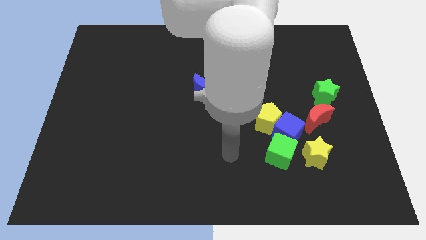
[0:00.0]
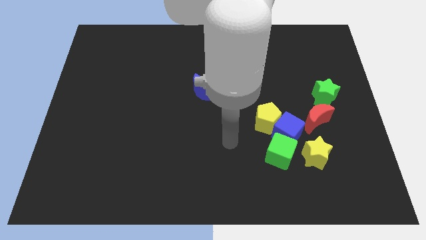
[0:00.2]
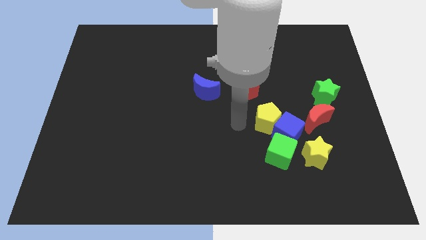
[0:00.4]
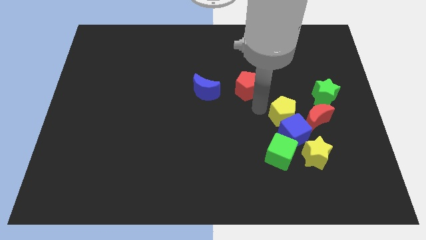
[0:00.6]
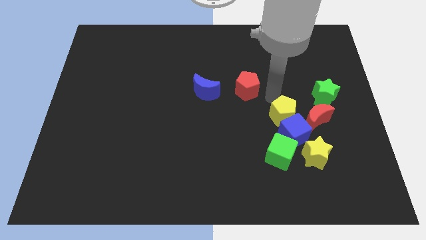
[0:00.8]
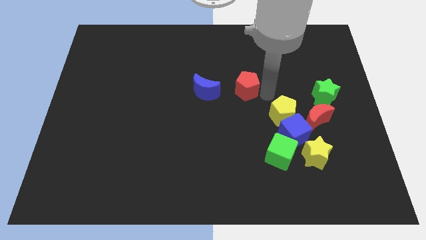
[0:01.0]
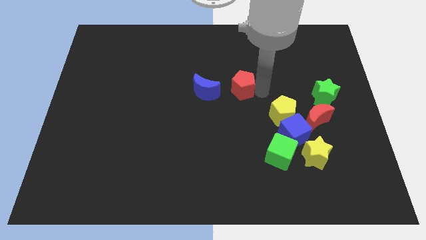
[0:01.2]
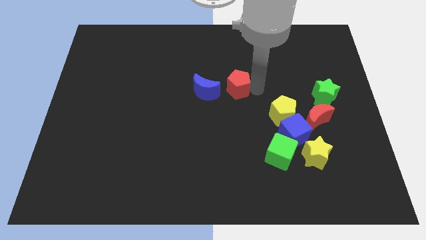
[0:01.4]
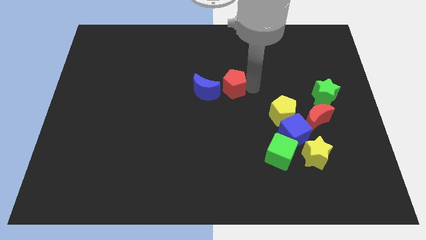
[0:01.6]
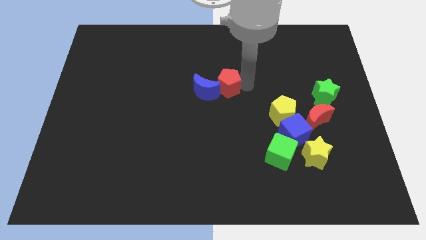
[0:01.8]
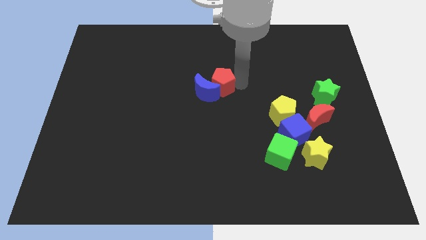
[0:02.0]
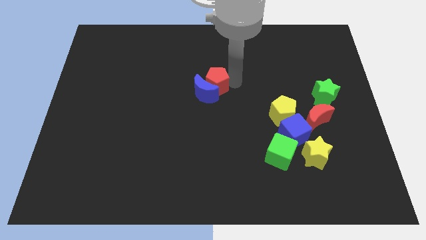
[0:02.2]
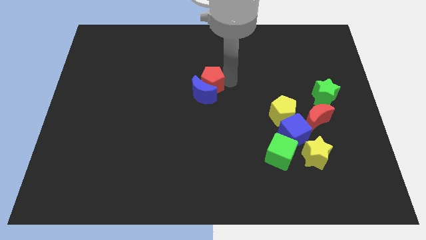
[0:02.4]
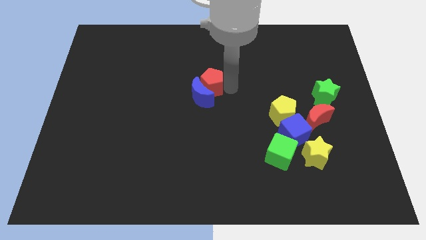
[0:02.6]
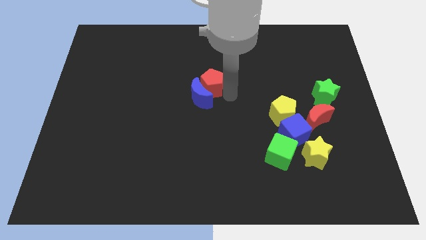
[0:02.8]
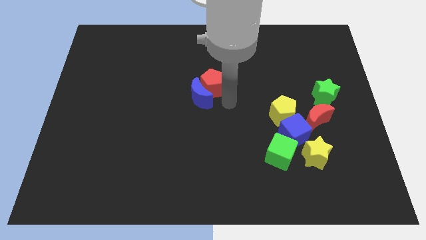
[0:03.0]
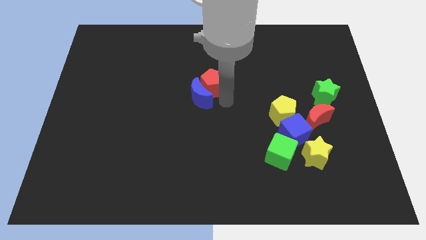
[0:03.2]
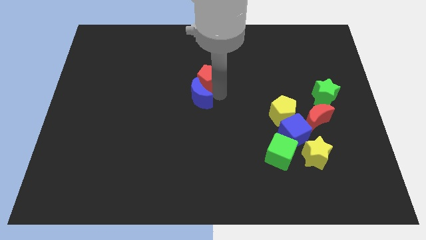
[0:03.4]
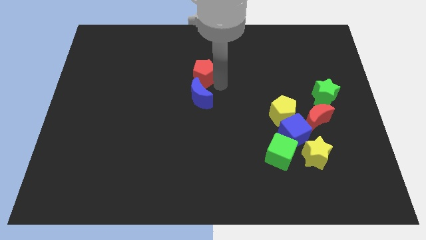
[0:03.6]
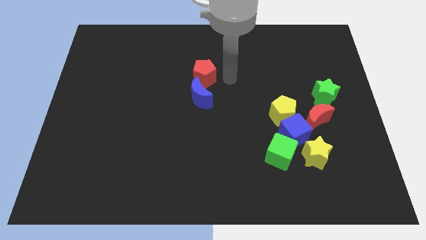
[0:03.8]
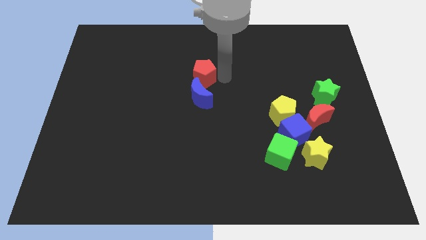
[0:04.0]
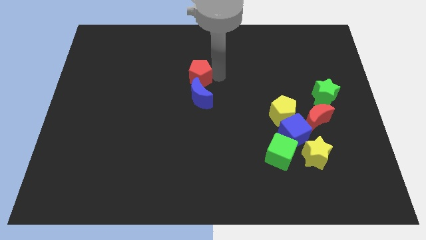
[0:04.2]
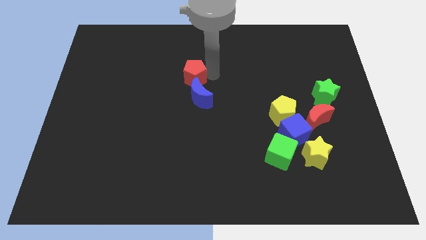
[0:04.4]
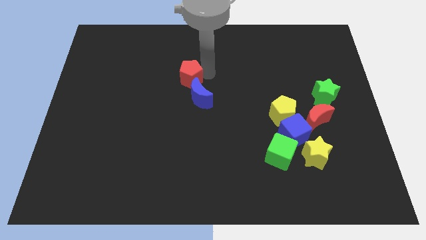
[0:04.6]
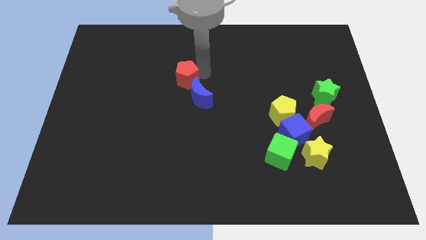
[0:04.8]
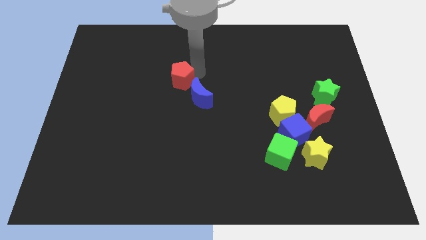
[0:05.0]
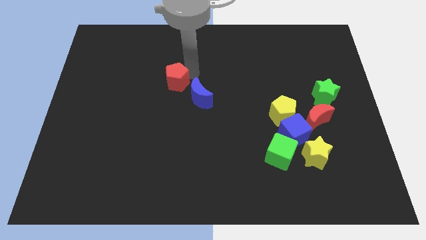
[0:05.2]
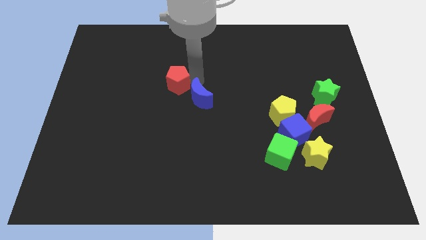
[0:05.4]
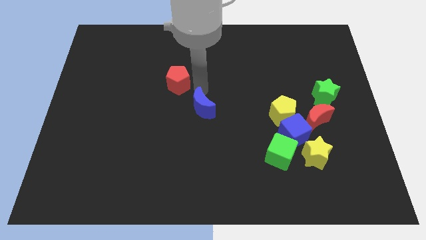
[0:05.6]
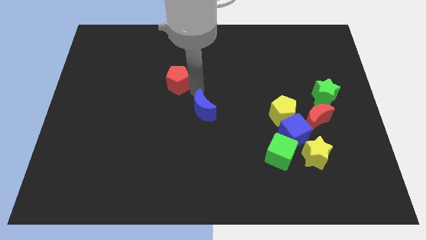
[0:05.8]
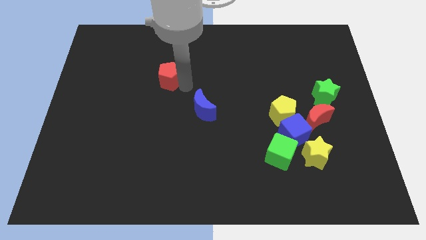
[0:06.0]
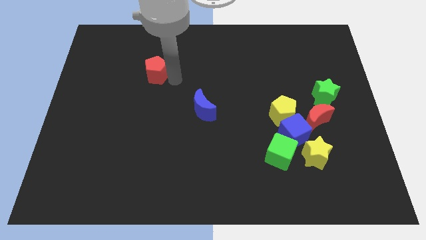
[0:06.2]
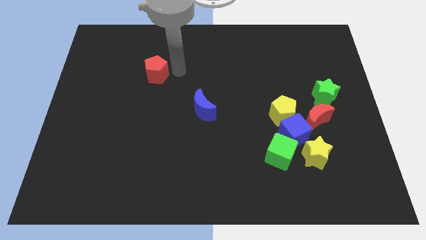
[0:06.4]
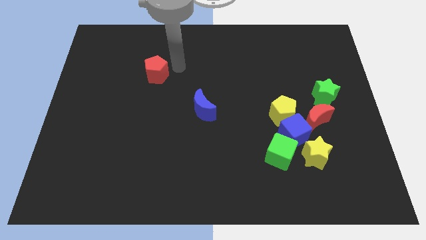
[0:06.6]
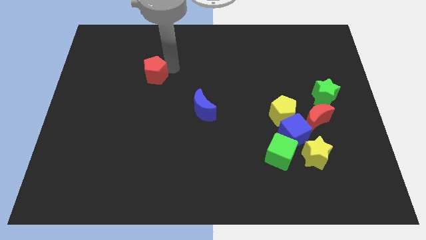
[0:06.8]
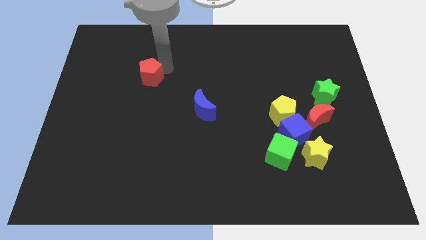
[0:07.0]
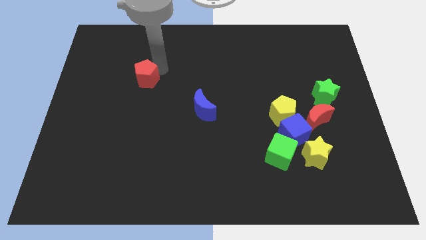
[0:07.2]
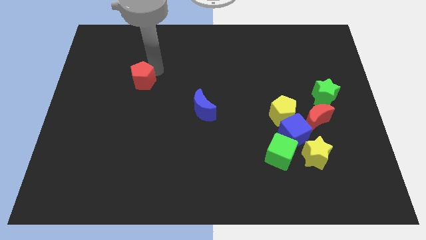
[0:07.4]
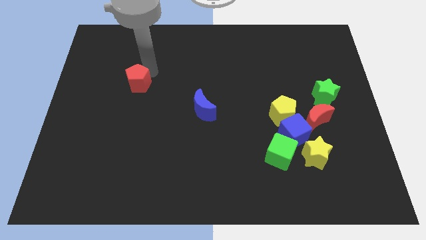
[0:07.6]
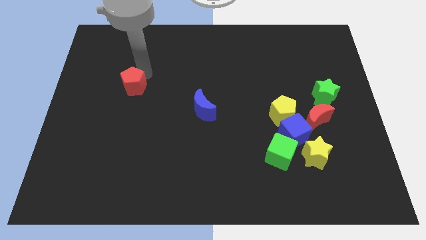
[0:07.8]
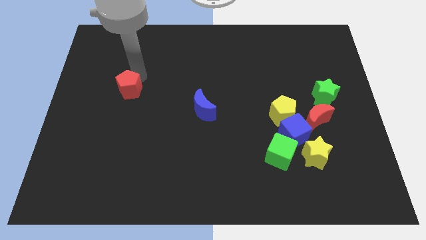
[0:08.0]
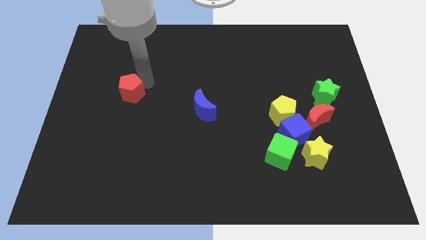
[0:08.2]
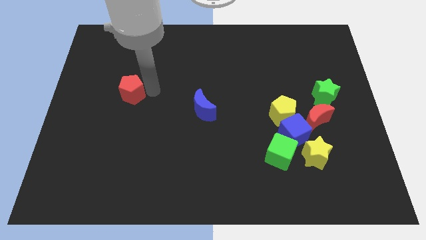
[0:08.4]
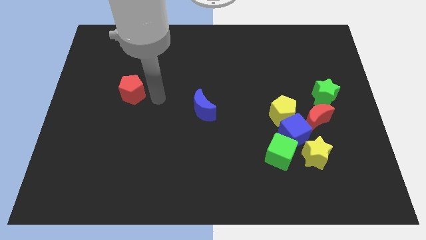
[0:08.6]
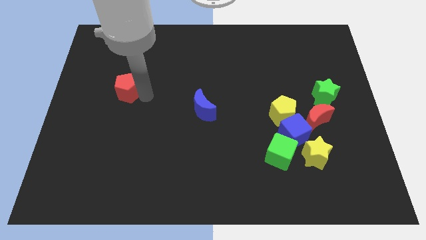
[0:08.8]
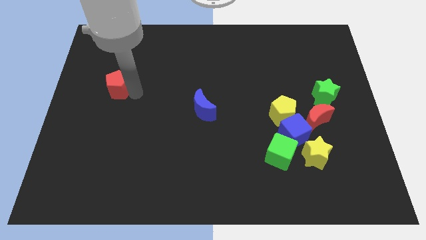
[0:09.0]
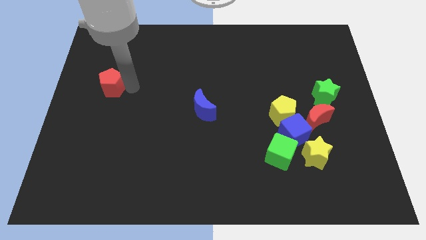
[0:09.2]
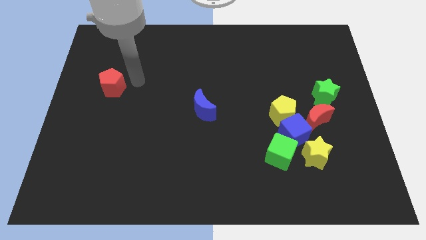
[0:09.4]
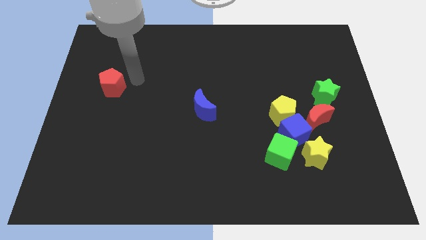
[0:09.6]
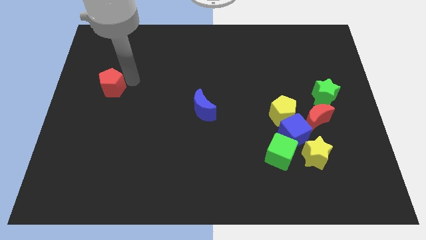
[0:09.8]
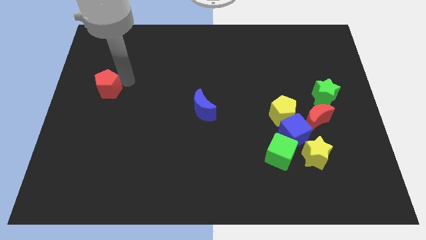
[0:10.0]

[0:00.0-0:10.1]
slide the red pentagon to the left side of the board

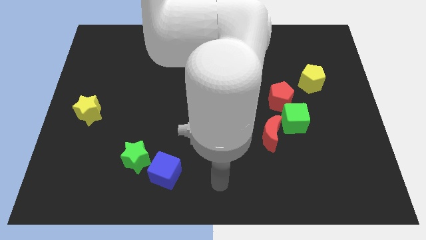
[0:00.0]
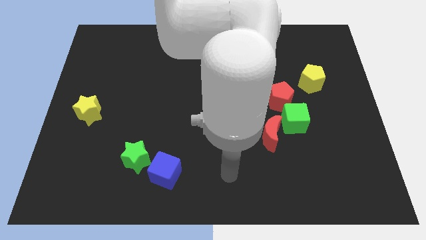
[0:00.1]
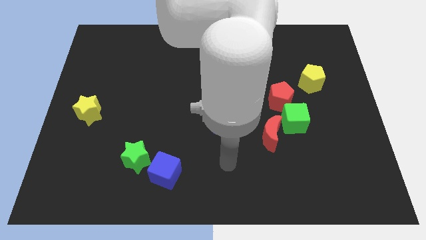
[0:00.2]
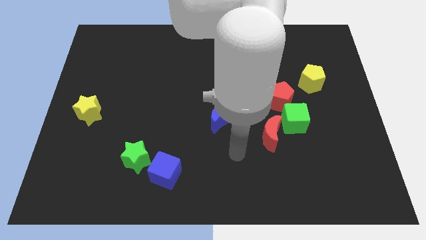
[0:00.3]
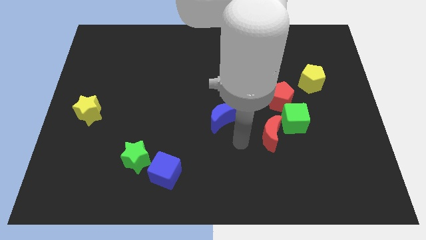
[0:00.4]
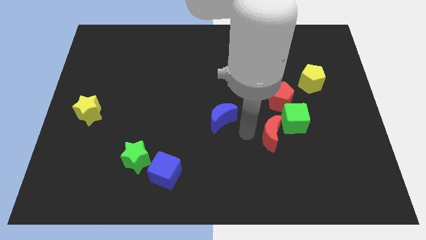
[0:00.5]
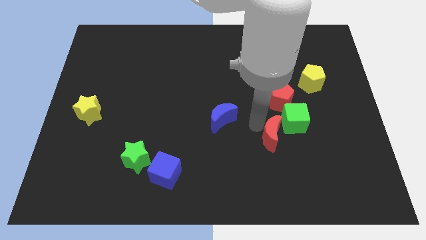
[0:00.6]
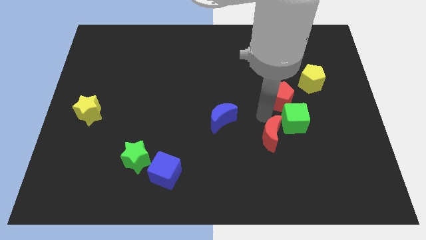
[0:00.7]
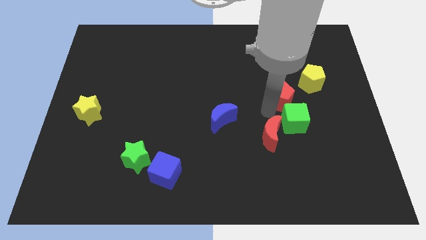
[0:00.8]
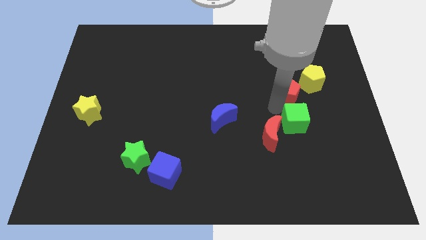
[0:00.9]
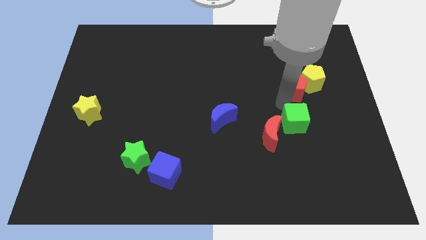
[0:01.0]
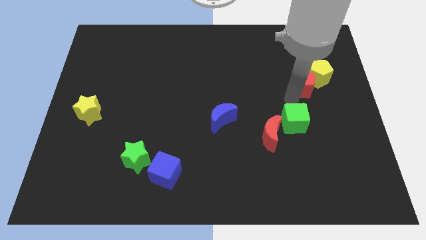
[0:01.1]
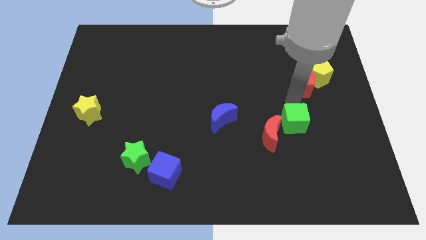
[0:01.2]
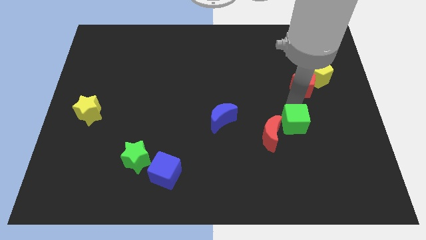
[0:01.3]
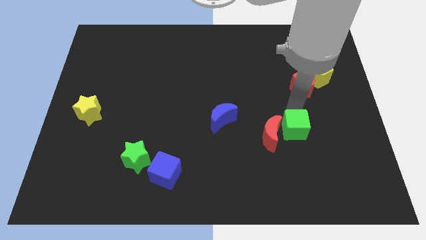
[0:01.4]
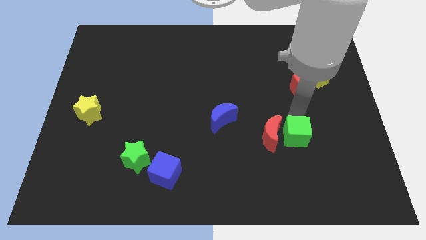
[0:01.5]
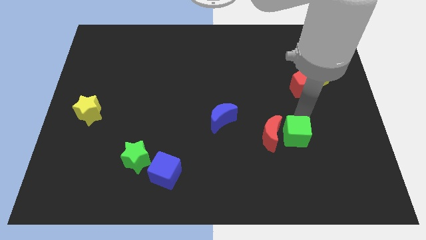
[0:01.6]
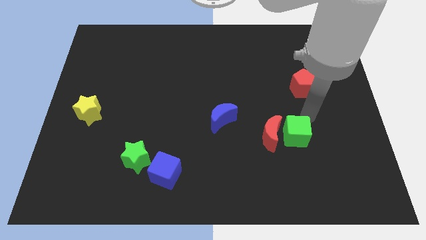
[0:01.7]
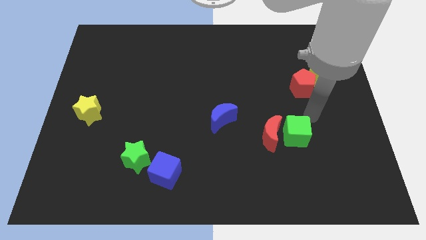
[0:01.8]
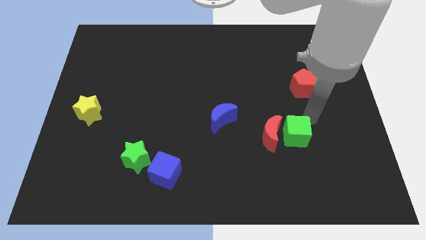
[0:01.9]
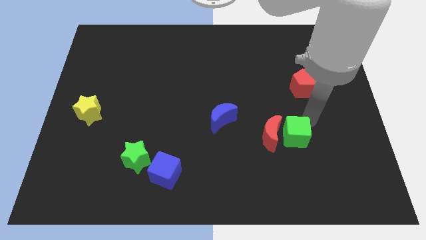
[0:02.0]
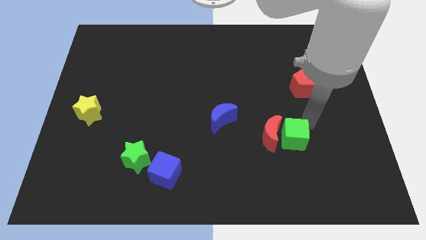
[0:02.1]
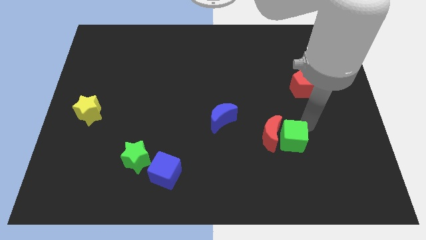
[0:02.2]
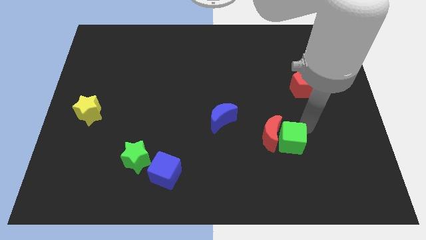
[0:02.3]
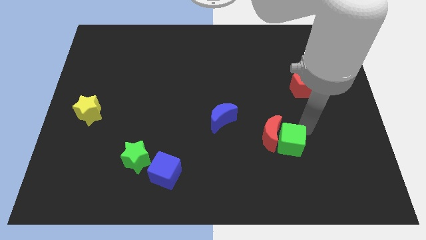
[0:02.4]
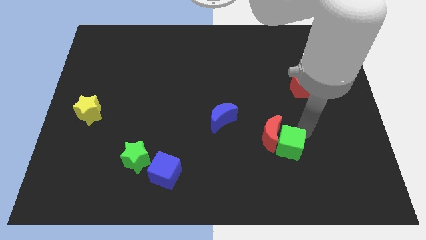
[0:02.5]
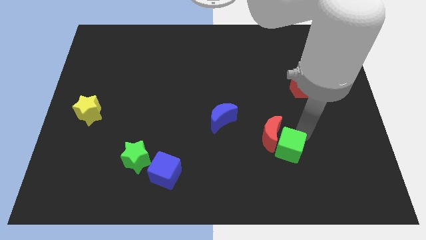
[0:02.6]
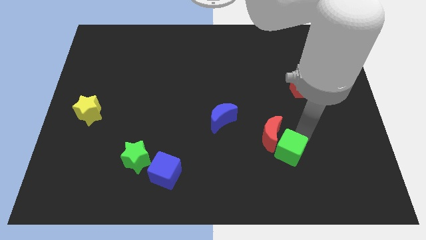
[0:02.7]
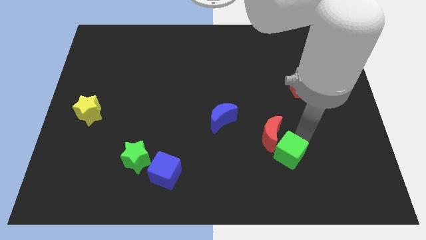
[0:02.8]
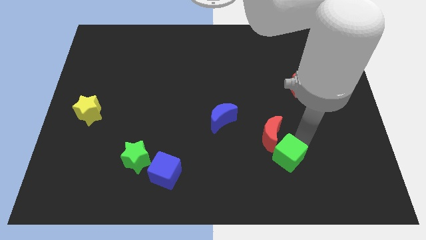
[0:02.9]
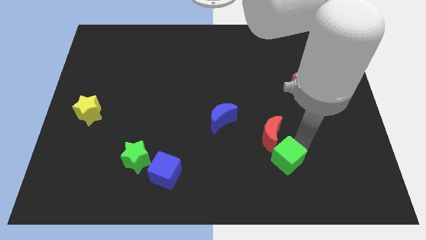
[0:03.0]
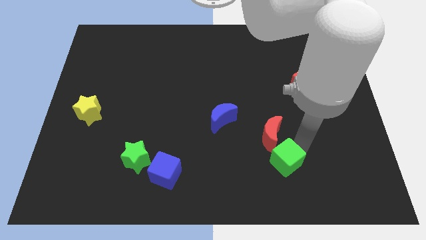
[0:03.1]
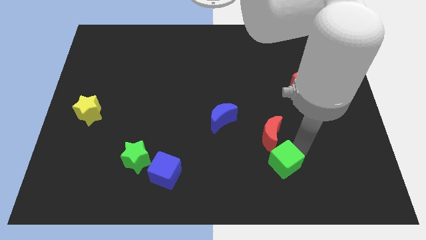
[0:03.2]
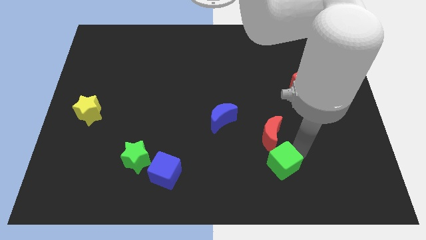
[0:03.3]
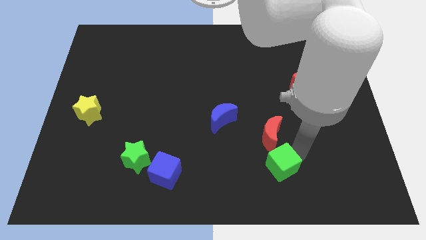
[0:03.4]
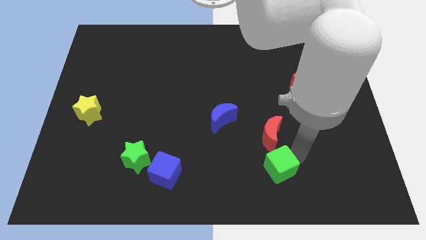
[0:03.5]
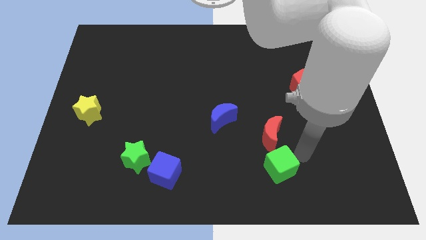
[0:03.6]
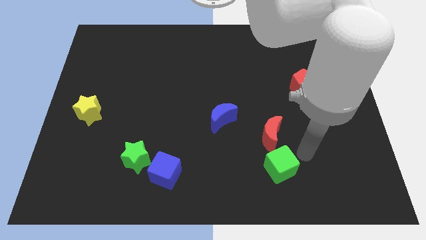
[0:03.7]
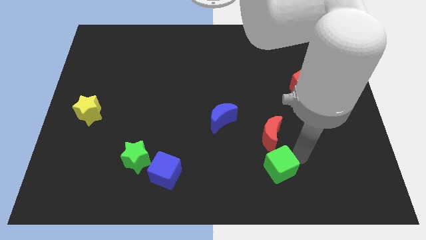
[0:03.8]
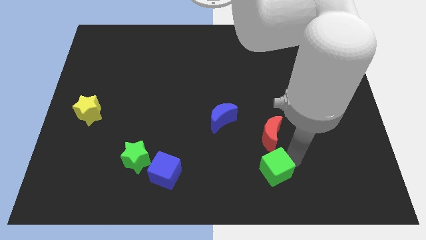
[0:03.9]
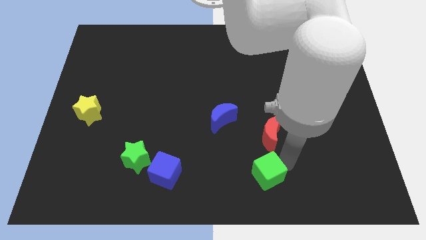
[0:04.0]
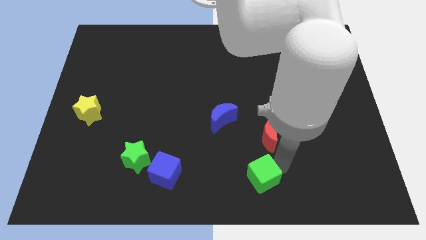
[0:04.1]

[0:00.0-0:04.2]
move the green cube to the bottom
